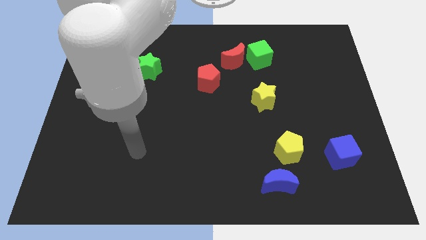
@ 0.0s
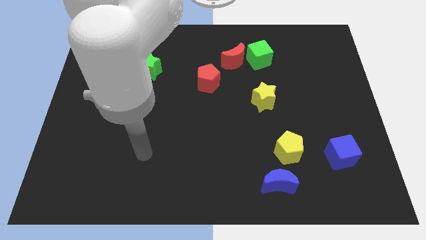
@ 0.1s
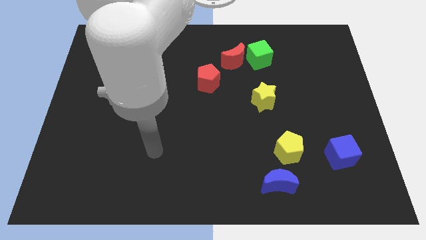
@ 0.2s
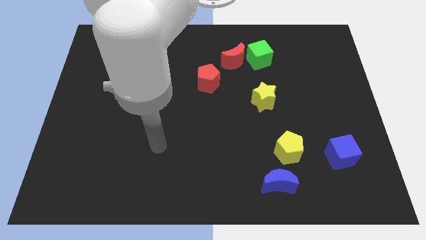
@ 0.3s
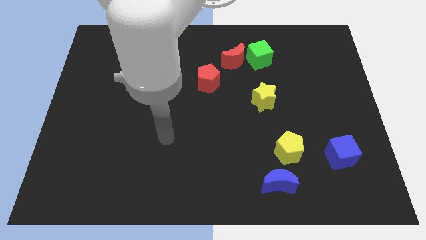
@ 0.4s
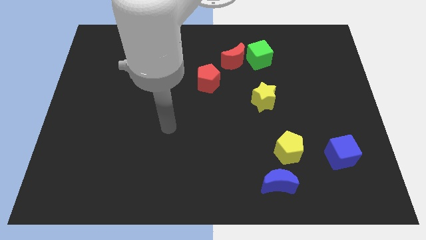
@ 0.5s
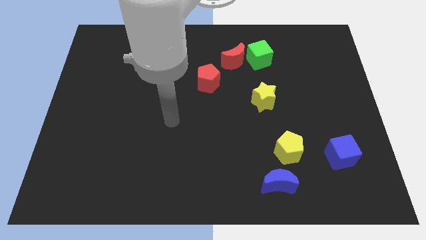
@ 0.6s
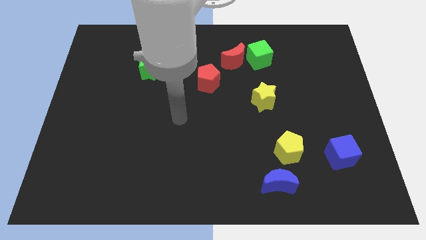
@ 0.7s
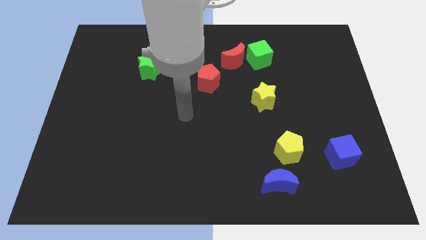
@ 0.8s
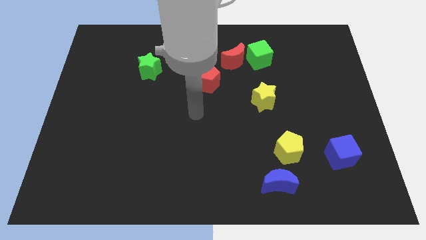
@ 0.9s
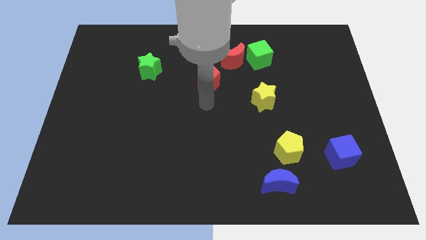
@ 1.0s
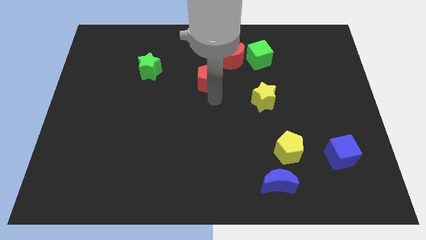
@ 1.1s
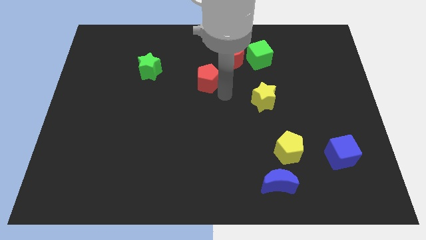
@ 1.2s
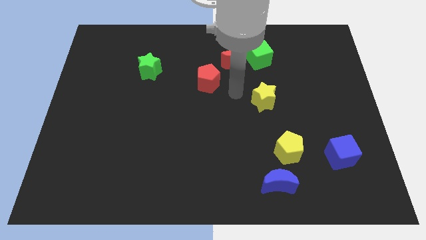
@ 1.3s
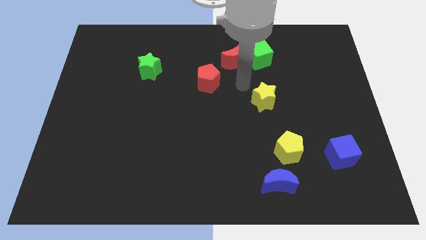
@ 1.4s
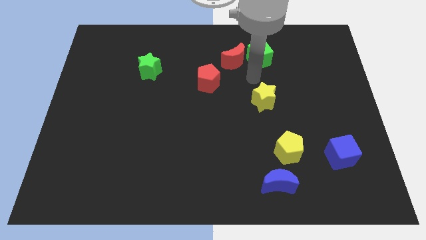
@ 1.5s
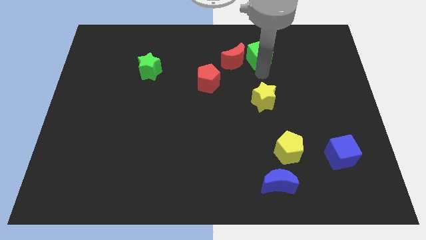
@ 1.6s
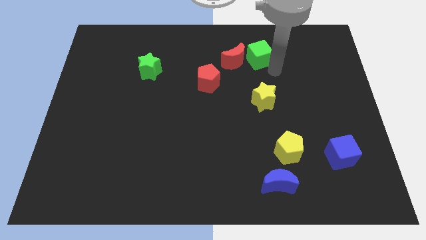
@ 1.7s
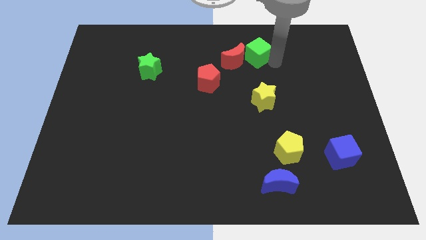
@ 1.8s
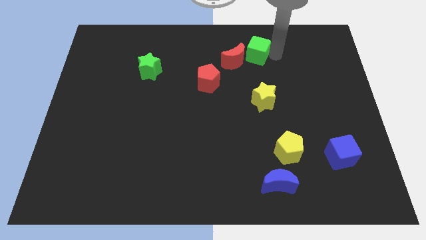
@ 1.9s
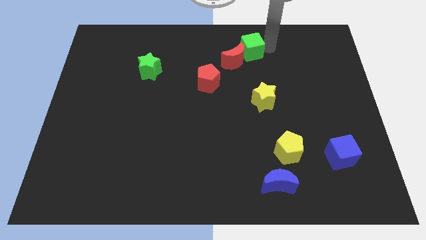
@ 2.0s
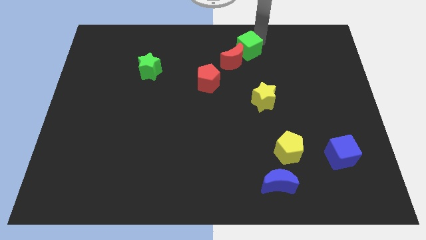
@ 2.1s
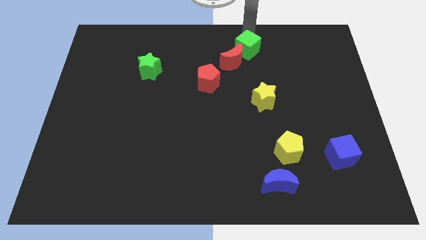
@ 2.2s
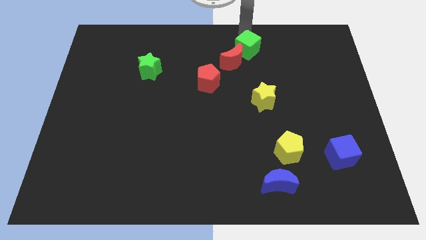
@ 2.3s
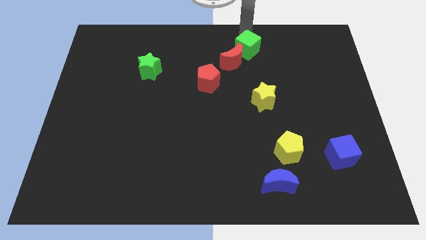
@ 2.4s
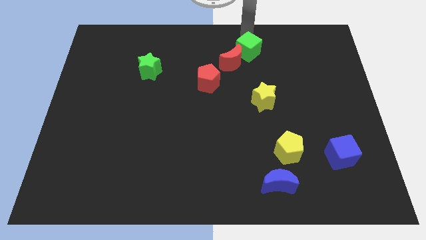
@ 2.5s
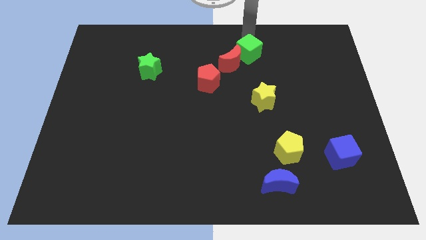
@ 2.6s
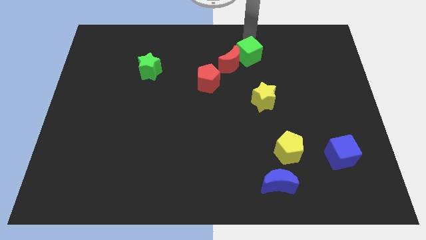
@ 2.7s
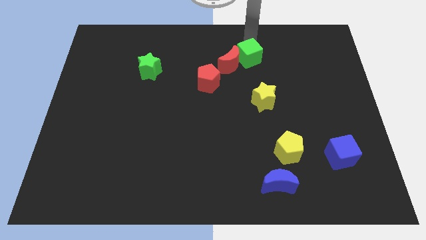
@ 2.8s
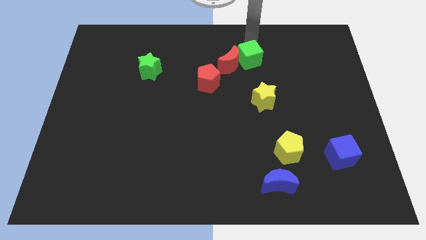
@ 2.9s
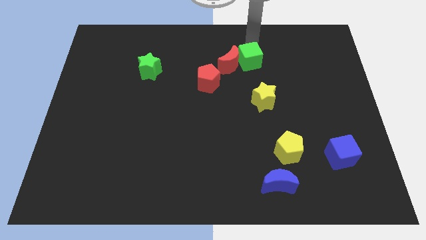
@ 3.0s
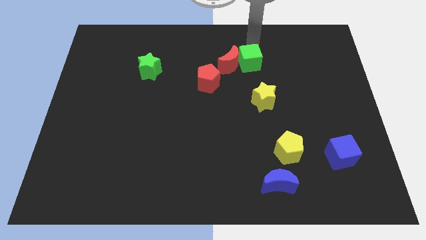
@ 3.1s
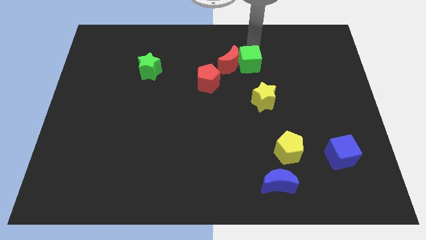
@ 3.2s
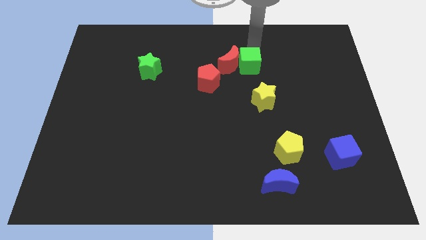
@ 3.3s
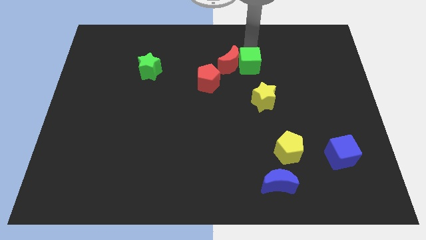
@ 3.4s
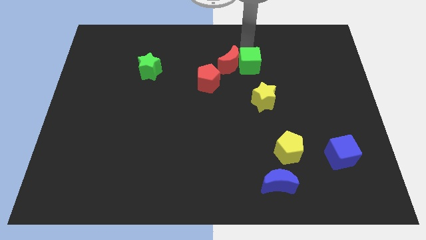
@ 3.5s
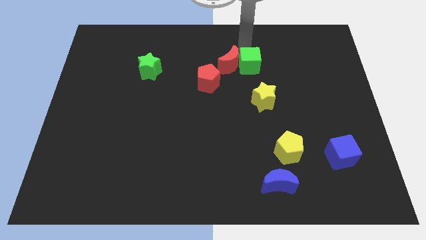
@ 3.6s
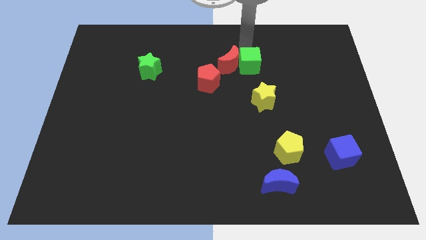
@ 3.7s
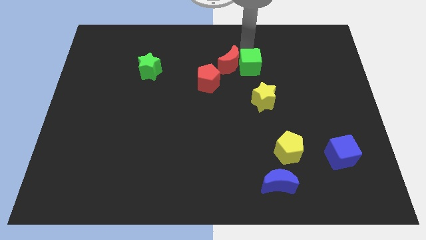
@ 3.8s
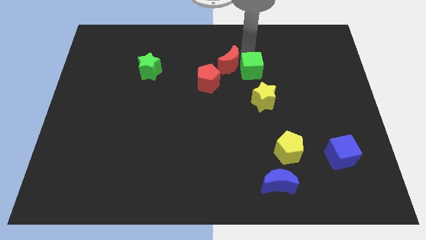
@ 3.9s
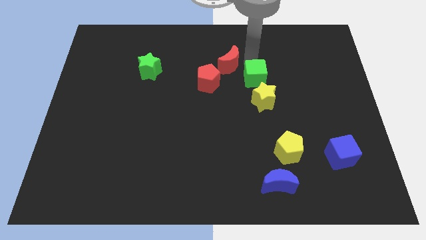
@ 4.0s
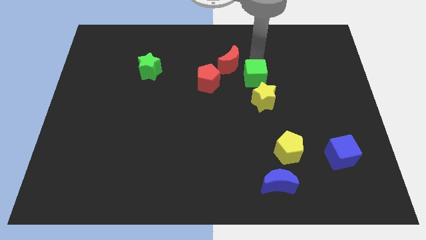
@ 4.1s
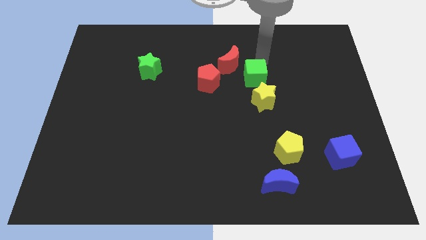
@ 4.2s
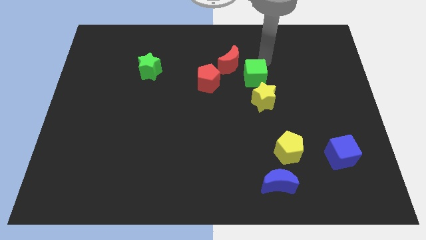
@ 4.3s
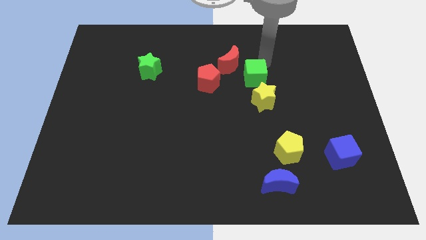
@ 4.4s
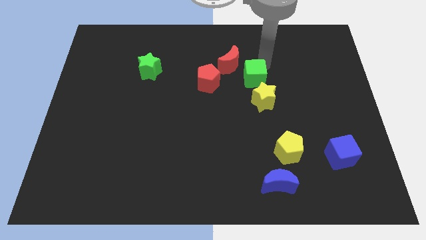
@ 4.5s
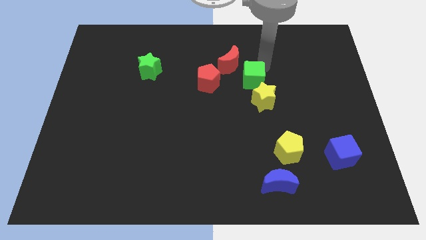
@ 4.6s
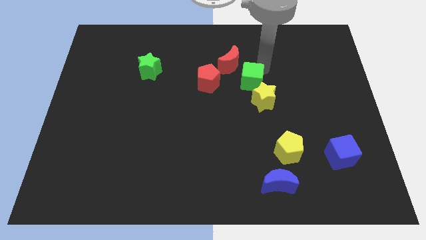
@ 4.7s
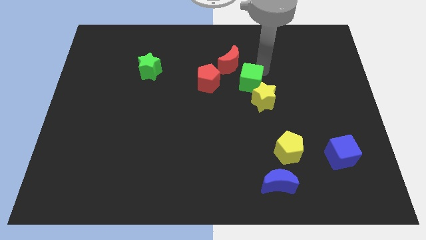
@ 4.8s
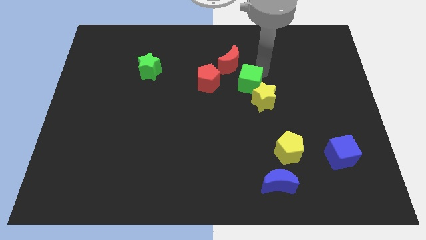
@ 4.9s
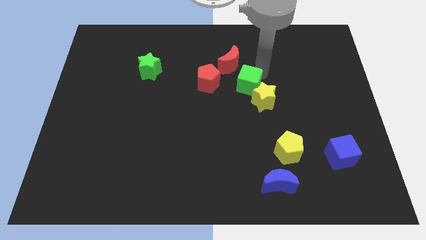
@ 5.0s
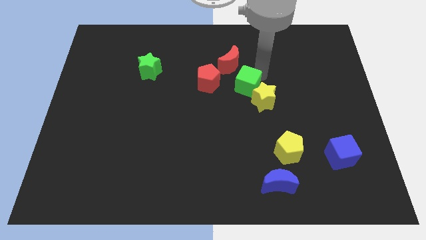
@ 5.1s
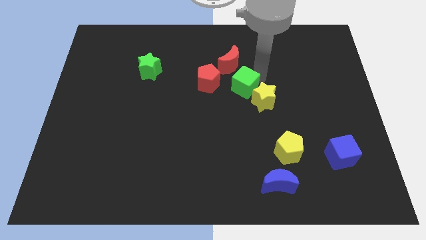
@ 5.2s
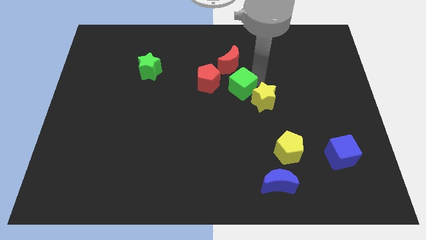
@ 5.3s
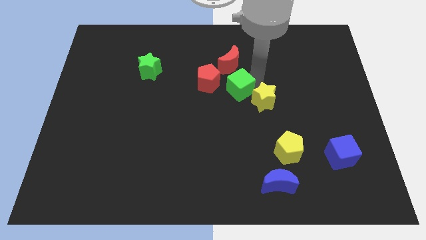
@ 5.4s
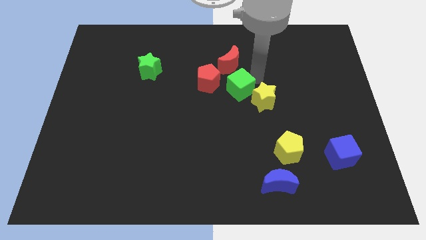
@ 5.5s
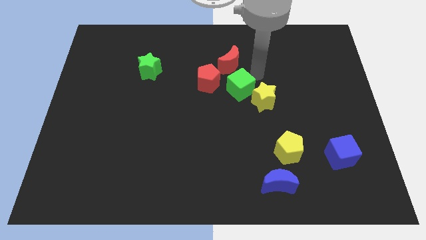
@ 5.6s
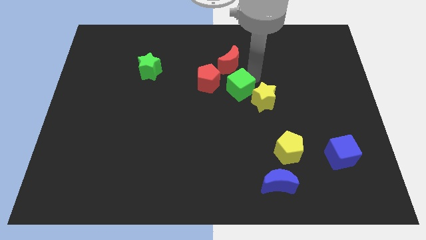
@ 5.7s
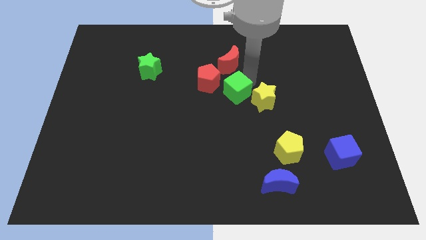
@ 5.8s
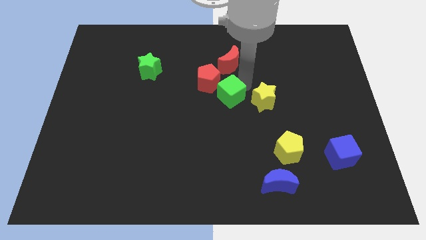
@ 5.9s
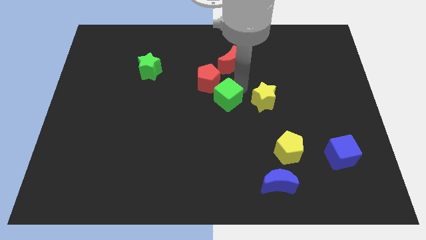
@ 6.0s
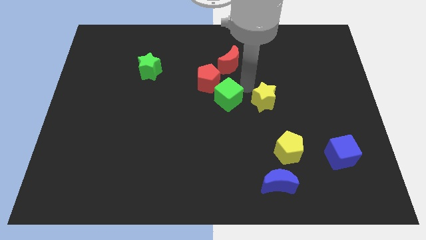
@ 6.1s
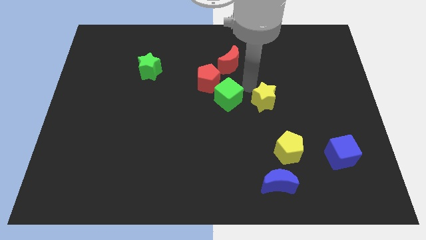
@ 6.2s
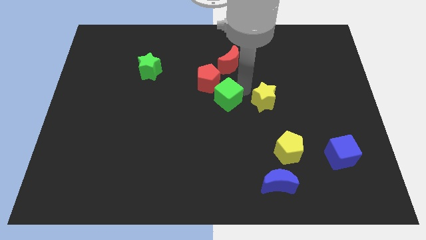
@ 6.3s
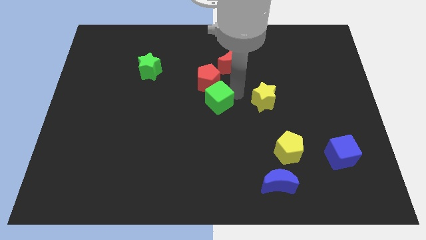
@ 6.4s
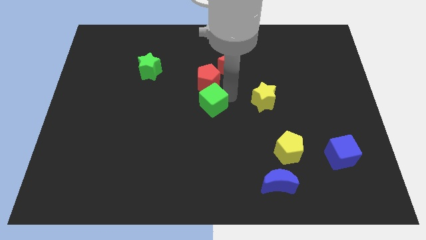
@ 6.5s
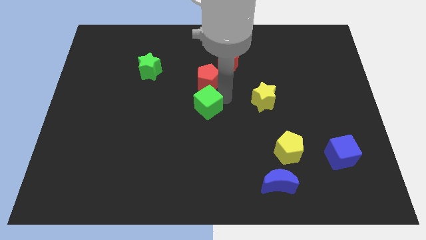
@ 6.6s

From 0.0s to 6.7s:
move the green cube downwards and left diagonally

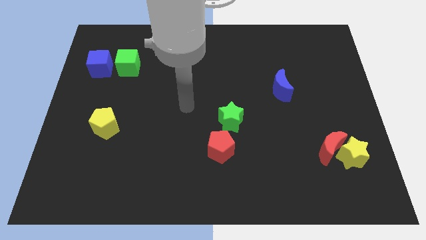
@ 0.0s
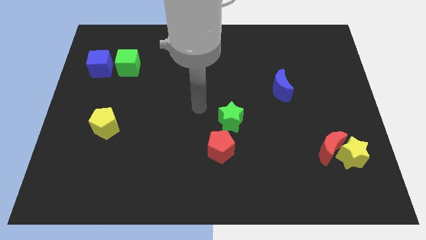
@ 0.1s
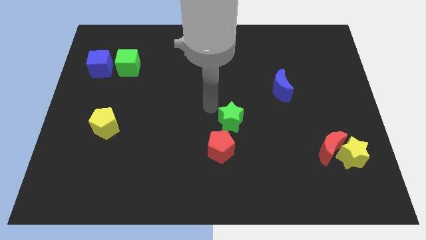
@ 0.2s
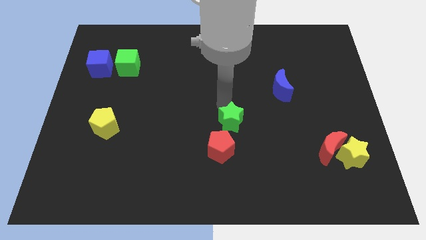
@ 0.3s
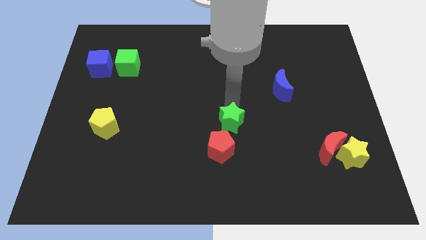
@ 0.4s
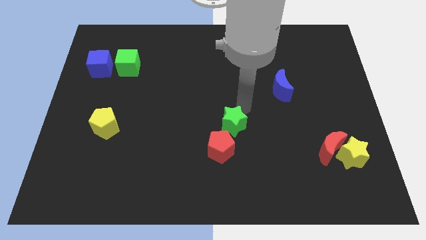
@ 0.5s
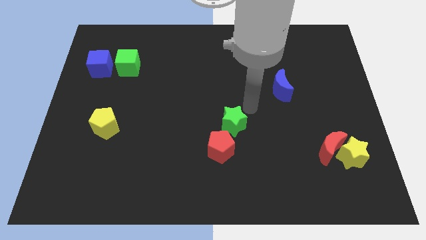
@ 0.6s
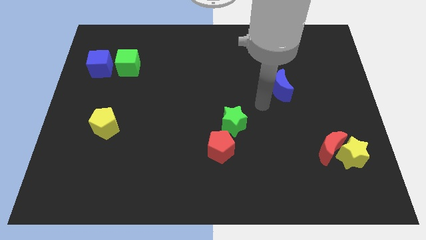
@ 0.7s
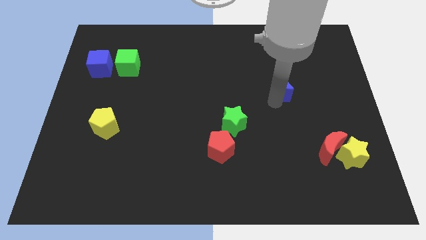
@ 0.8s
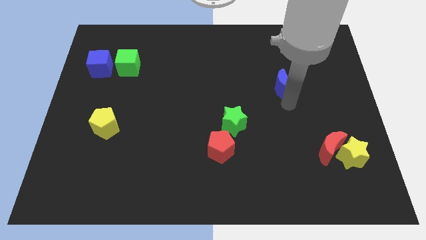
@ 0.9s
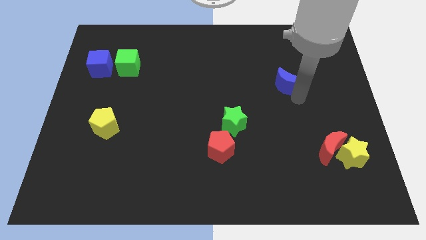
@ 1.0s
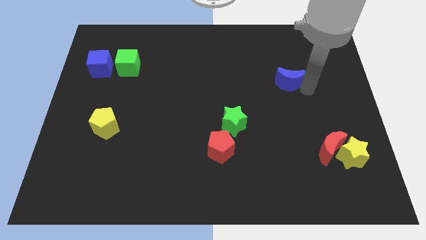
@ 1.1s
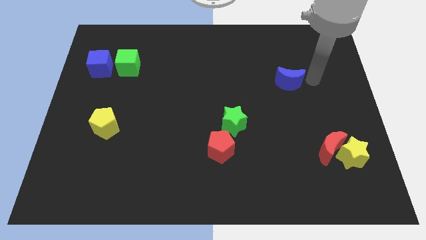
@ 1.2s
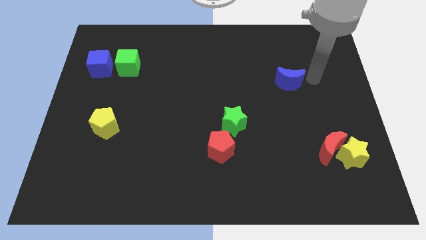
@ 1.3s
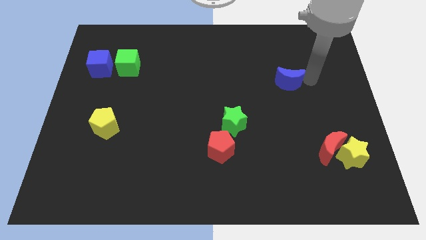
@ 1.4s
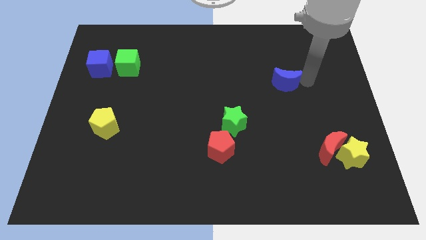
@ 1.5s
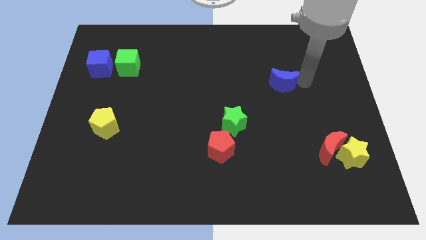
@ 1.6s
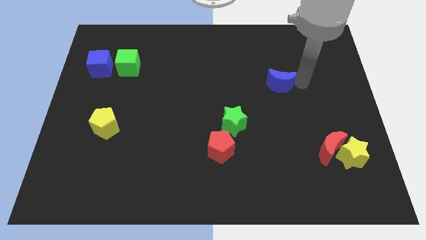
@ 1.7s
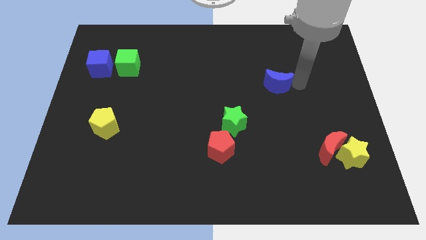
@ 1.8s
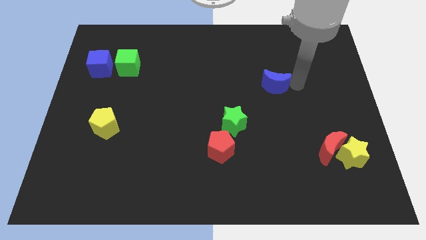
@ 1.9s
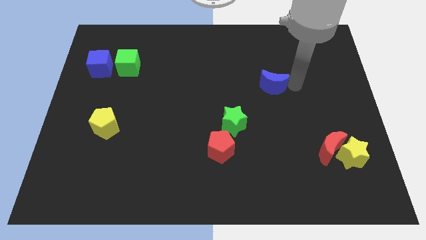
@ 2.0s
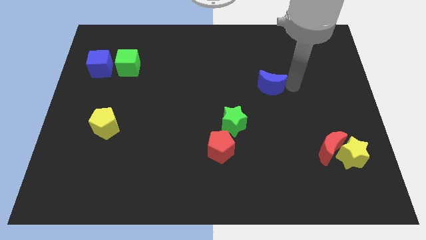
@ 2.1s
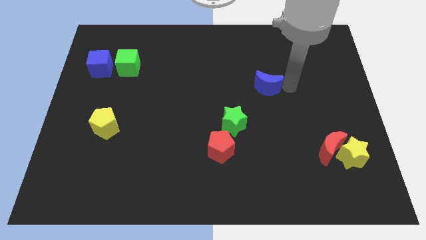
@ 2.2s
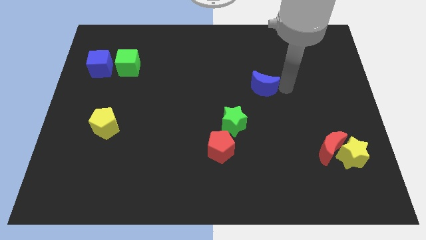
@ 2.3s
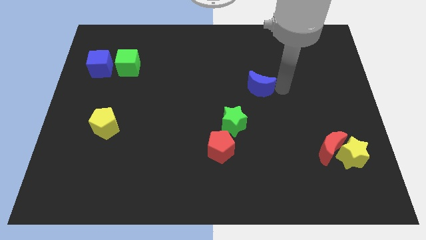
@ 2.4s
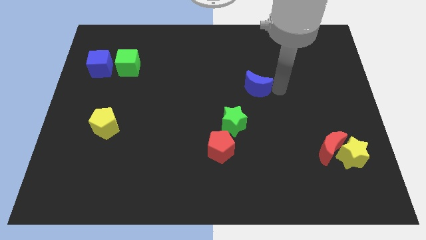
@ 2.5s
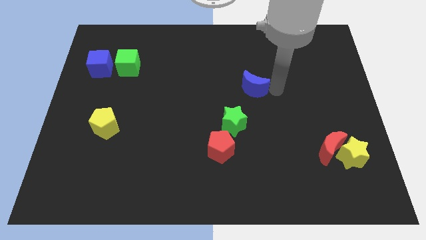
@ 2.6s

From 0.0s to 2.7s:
slightly move the blue moon to the left
